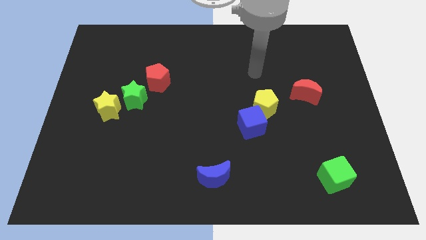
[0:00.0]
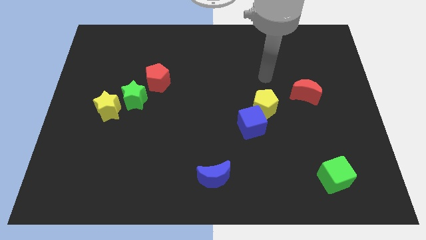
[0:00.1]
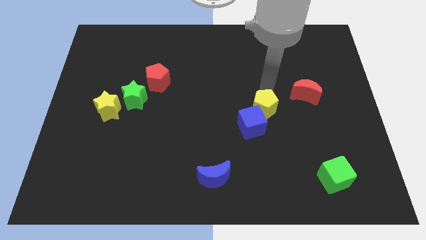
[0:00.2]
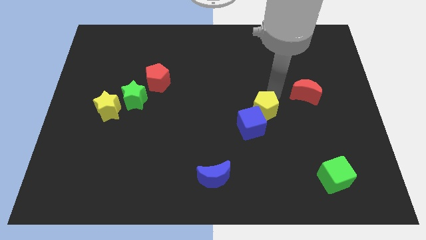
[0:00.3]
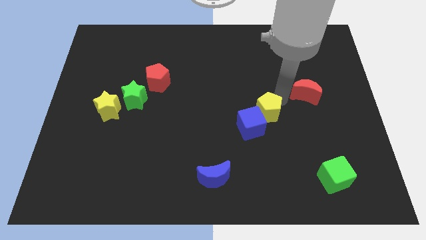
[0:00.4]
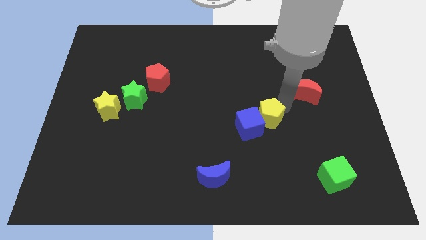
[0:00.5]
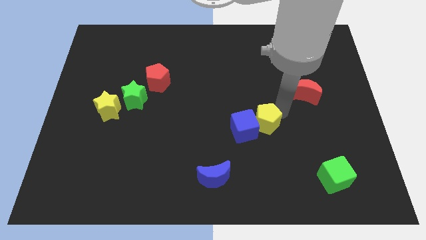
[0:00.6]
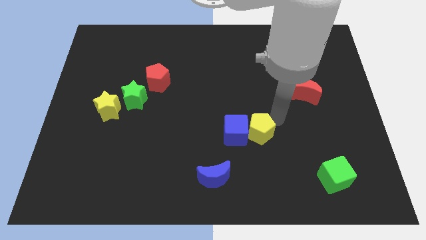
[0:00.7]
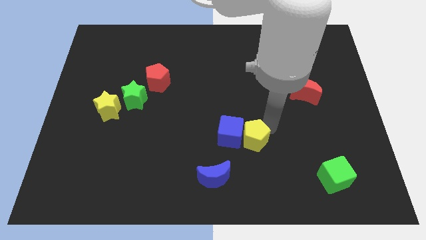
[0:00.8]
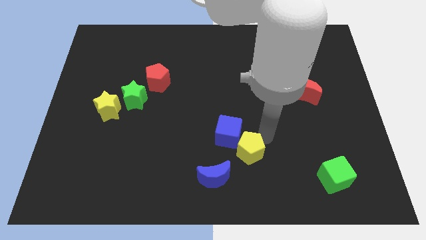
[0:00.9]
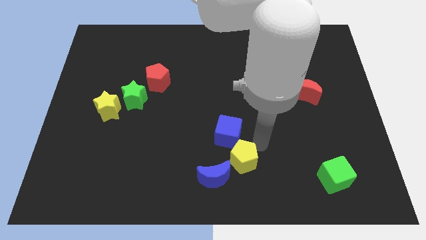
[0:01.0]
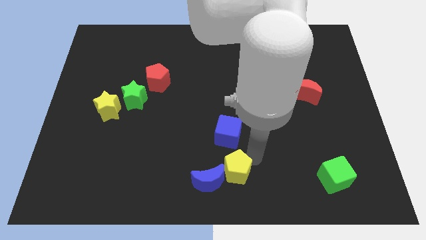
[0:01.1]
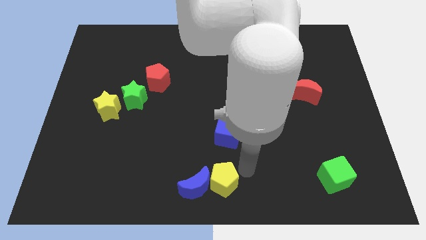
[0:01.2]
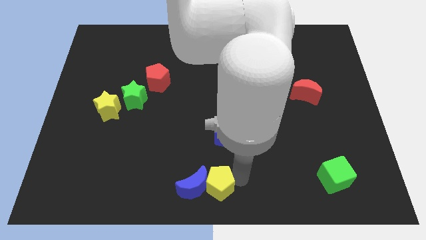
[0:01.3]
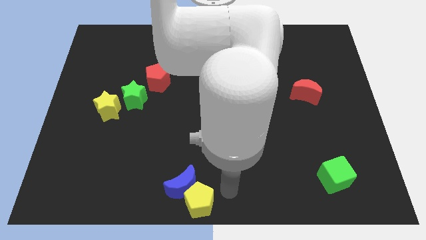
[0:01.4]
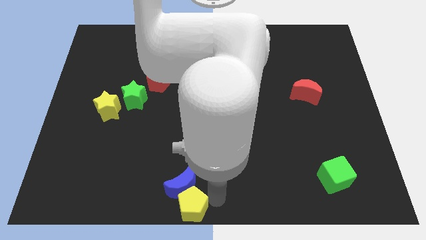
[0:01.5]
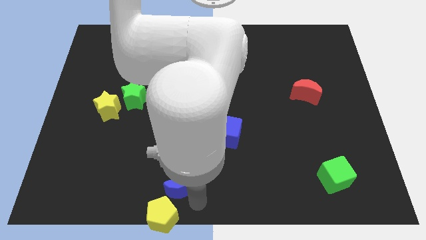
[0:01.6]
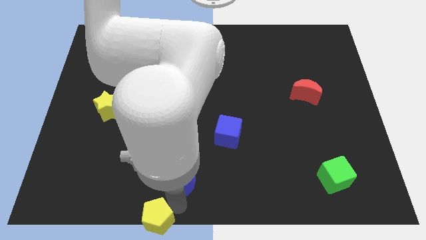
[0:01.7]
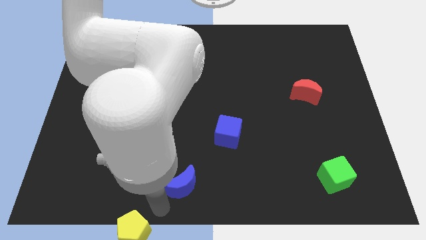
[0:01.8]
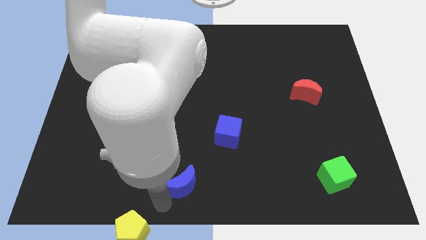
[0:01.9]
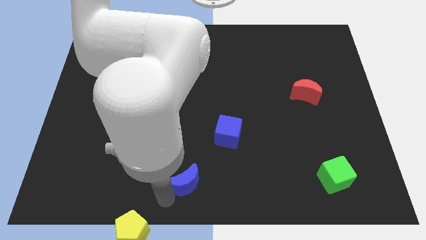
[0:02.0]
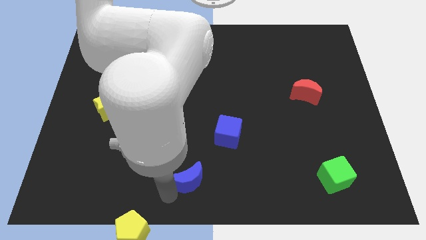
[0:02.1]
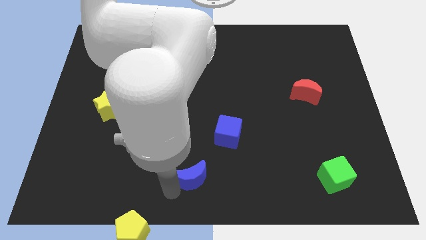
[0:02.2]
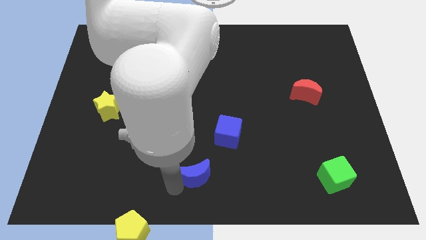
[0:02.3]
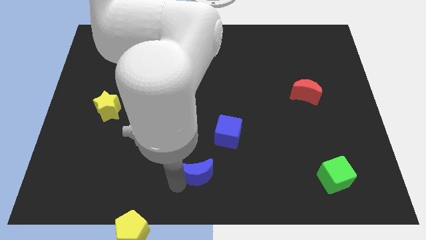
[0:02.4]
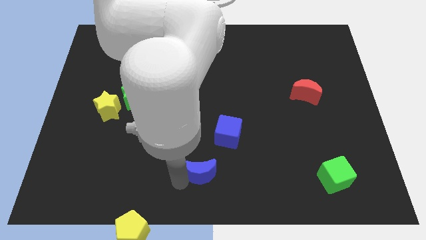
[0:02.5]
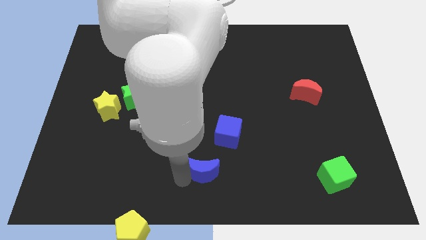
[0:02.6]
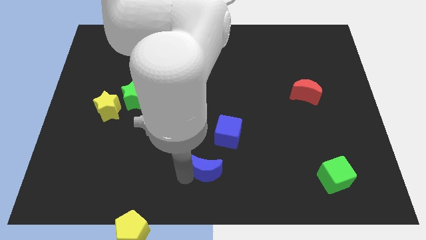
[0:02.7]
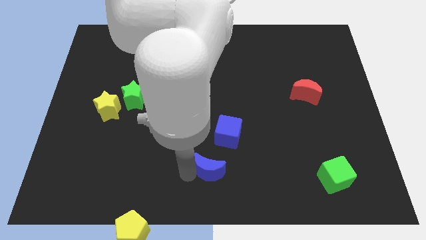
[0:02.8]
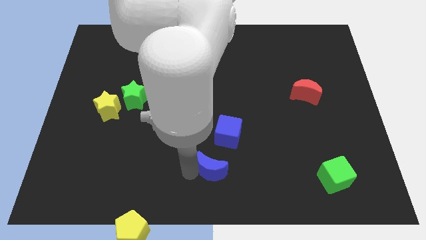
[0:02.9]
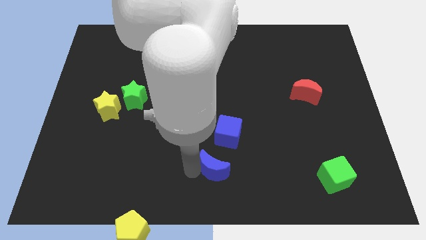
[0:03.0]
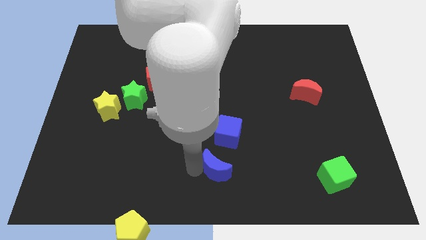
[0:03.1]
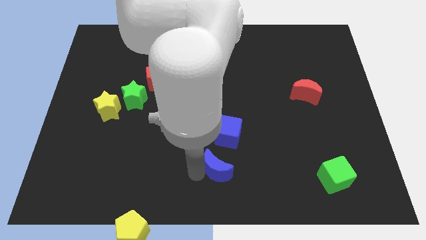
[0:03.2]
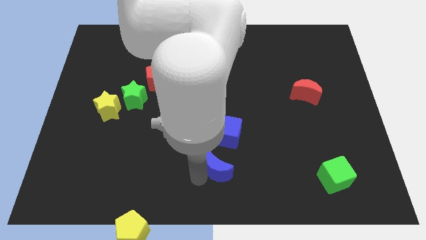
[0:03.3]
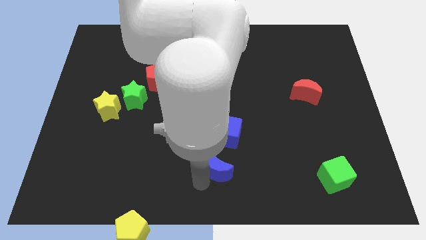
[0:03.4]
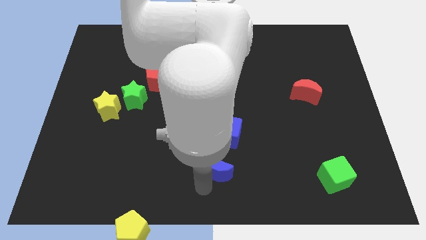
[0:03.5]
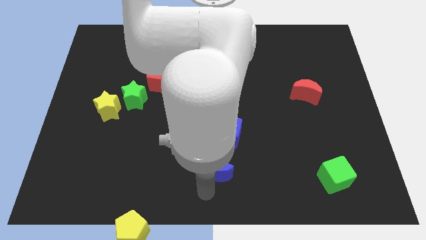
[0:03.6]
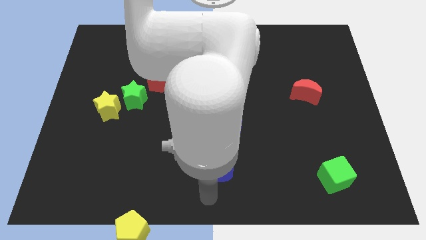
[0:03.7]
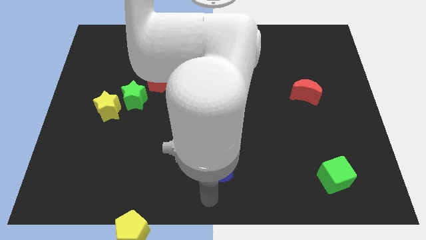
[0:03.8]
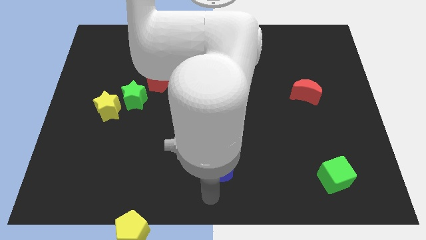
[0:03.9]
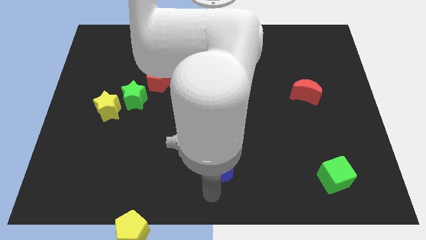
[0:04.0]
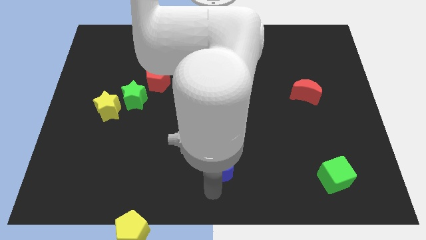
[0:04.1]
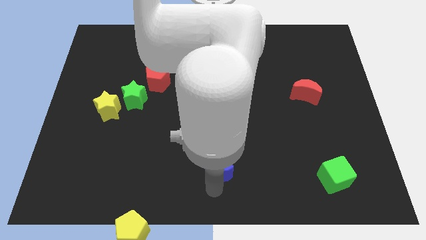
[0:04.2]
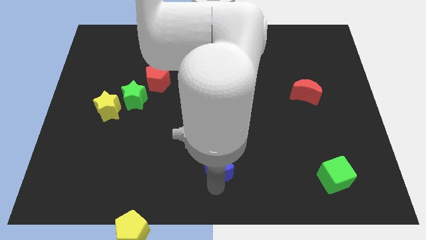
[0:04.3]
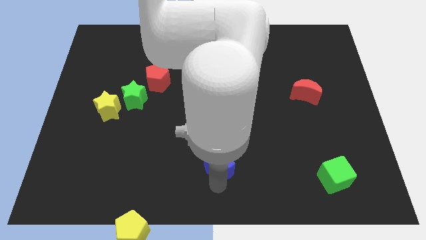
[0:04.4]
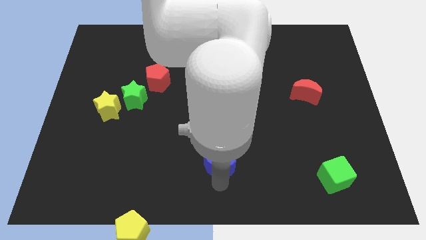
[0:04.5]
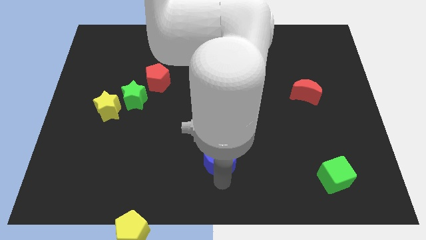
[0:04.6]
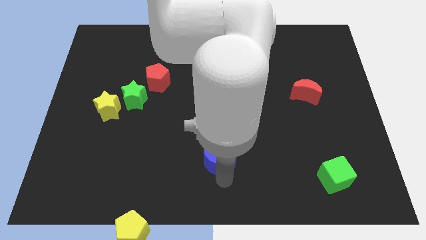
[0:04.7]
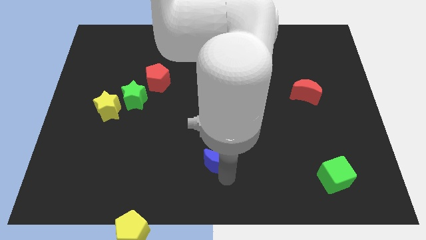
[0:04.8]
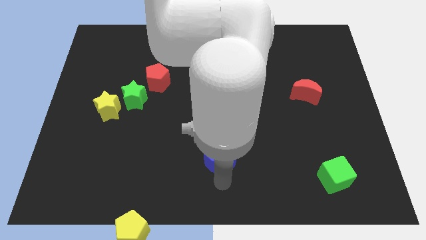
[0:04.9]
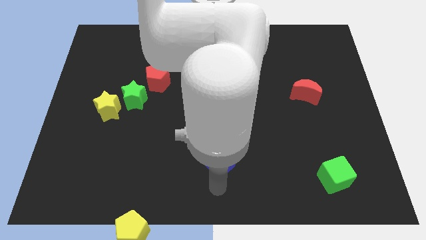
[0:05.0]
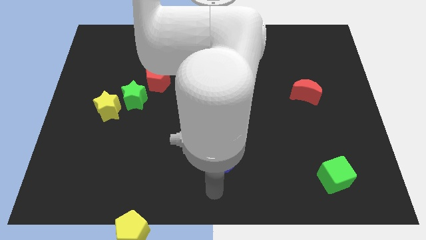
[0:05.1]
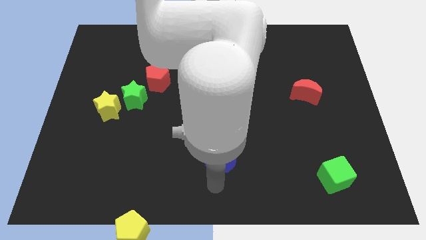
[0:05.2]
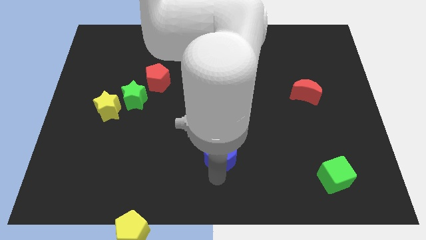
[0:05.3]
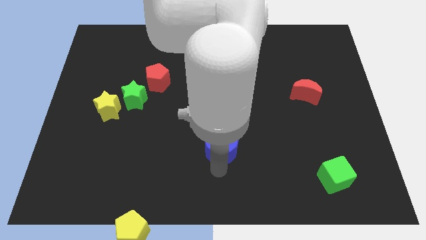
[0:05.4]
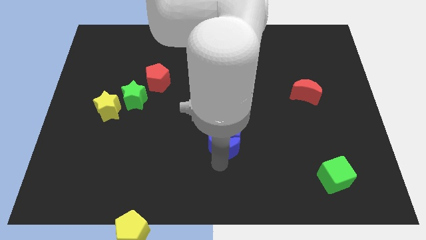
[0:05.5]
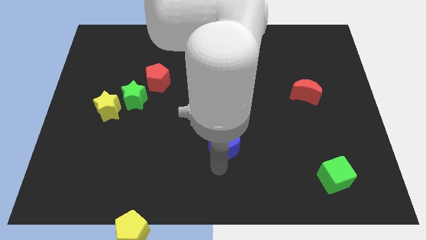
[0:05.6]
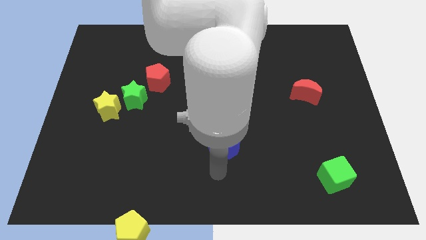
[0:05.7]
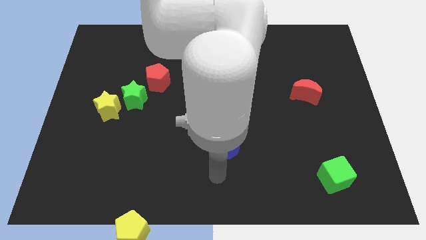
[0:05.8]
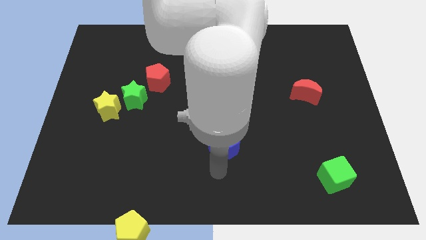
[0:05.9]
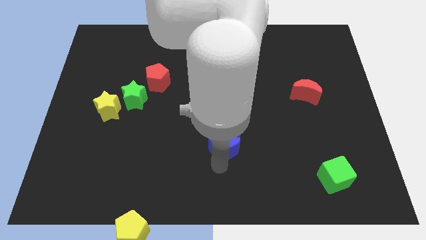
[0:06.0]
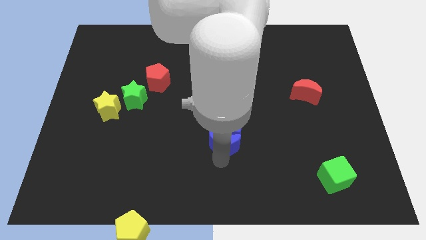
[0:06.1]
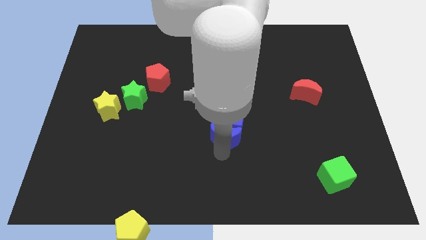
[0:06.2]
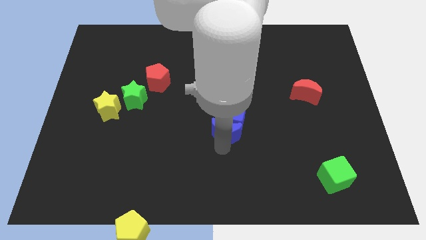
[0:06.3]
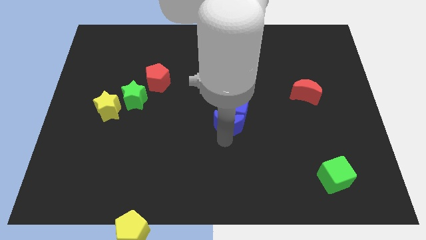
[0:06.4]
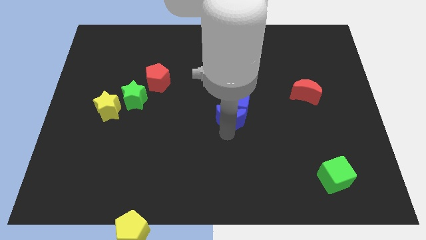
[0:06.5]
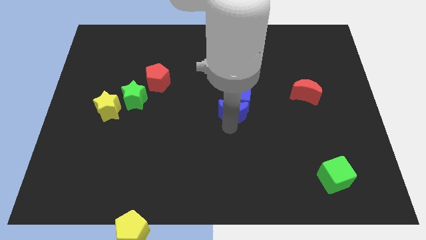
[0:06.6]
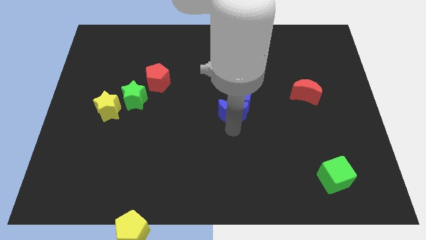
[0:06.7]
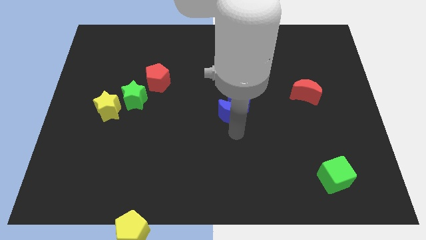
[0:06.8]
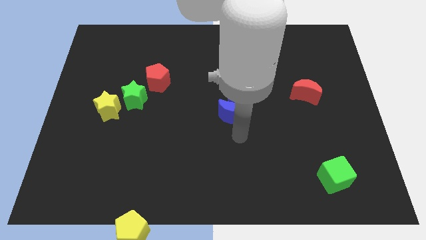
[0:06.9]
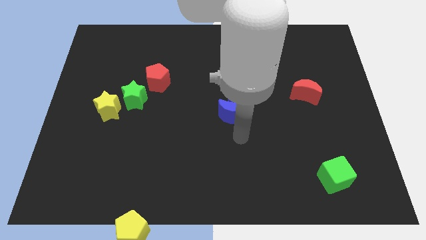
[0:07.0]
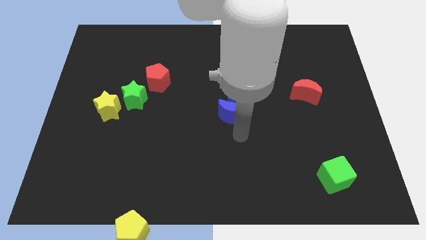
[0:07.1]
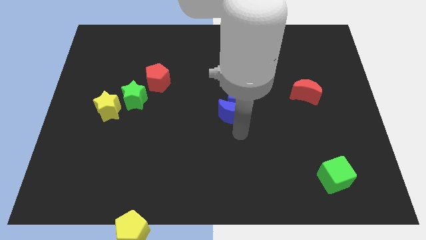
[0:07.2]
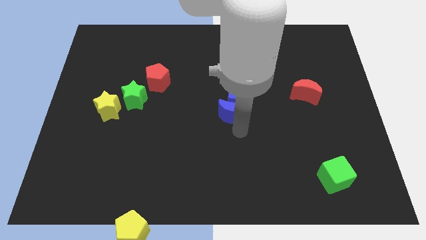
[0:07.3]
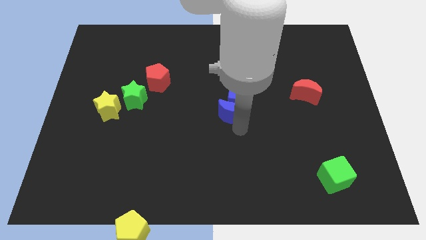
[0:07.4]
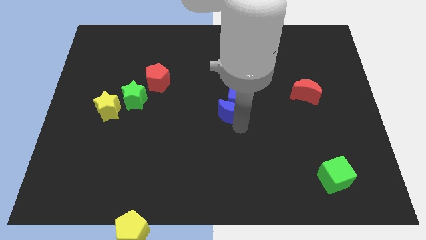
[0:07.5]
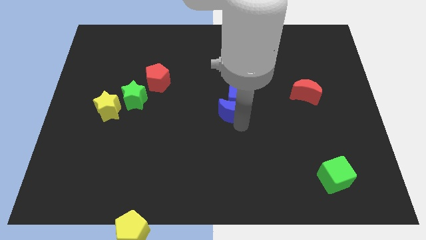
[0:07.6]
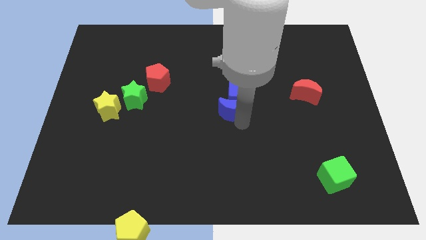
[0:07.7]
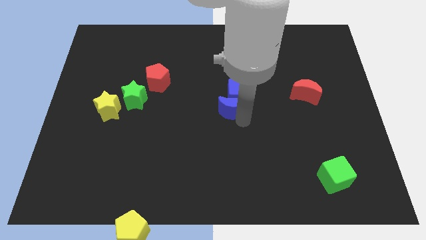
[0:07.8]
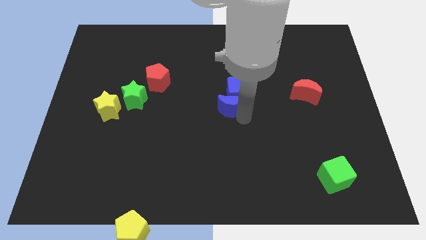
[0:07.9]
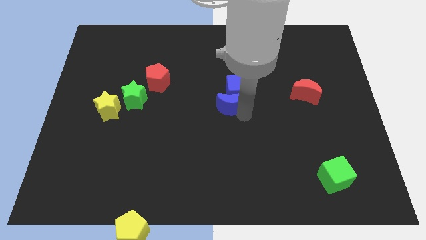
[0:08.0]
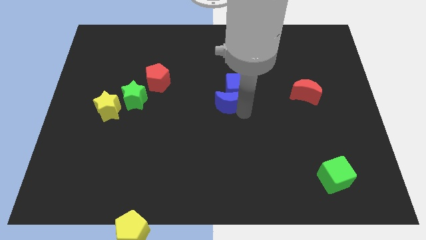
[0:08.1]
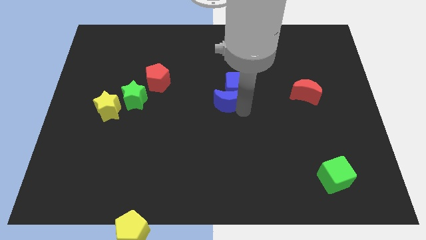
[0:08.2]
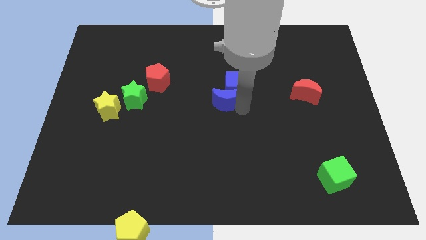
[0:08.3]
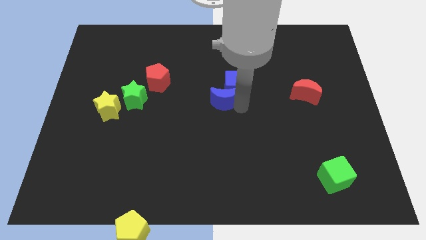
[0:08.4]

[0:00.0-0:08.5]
slide the blue moon upwards
